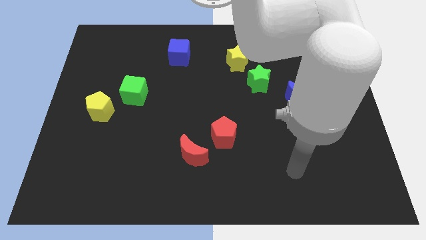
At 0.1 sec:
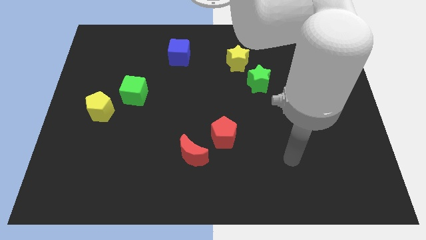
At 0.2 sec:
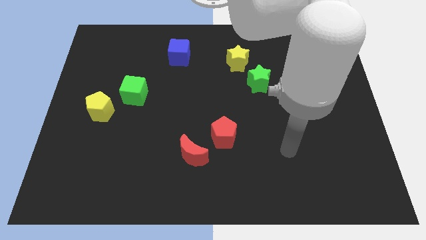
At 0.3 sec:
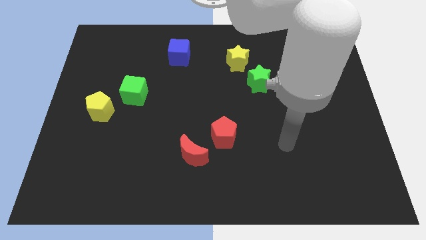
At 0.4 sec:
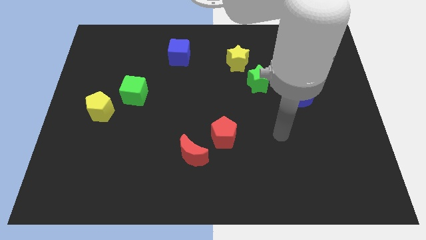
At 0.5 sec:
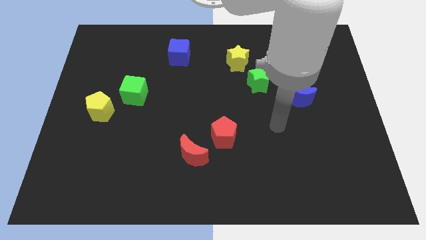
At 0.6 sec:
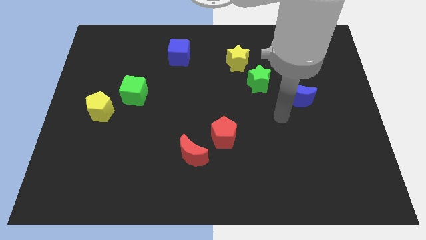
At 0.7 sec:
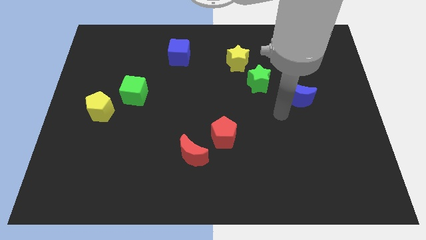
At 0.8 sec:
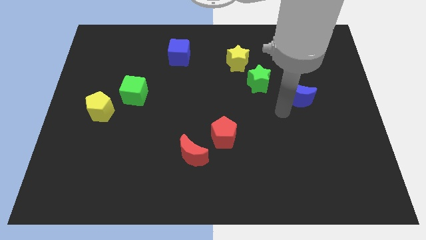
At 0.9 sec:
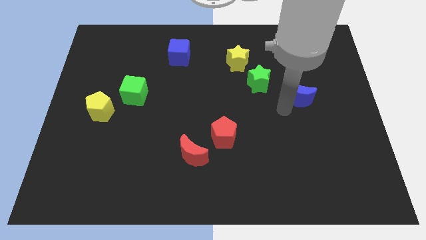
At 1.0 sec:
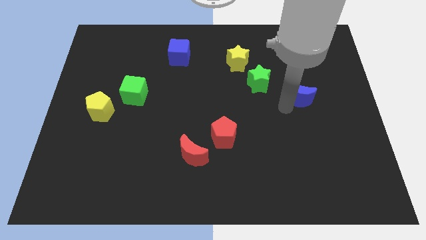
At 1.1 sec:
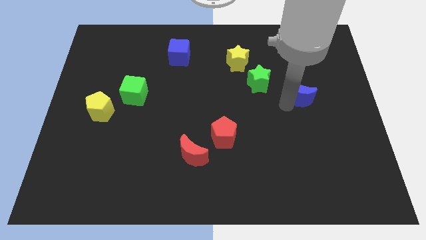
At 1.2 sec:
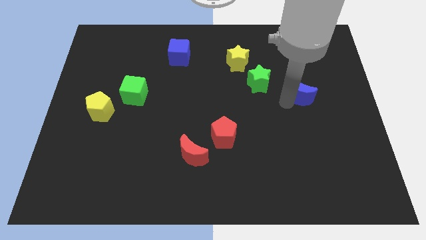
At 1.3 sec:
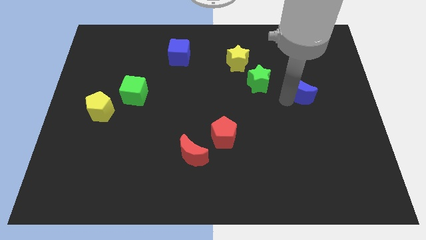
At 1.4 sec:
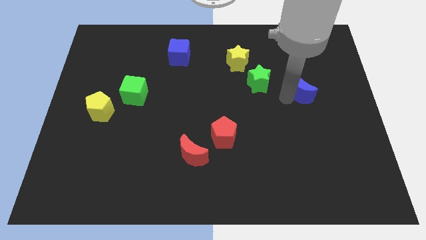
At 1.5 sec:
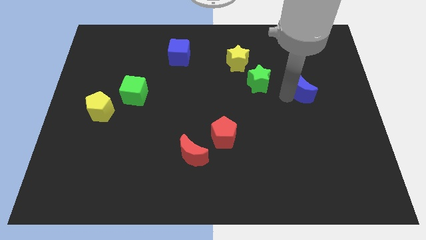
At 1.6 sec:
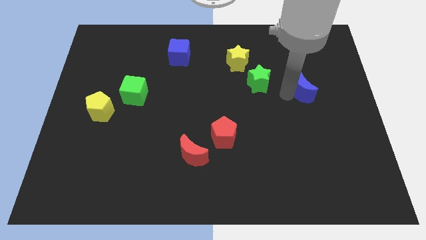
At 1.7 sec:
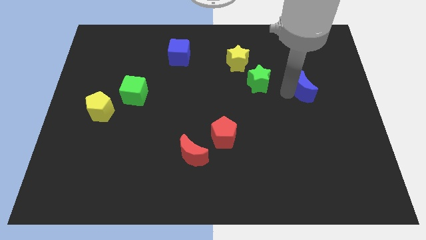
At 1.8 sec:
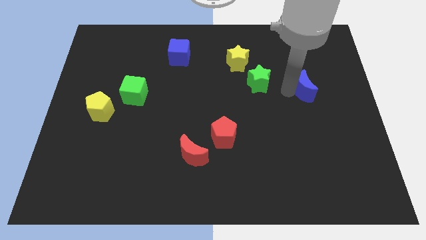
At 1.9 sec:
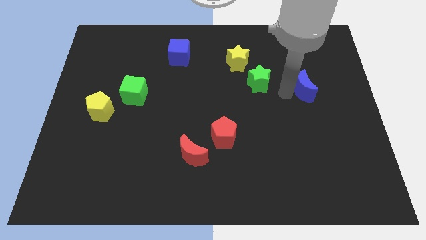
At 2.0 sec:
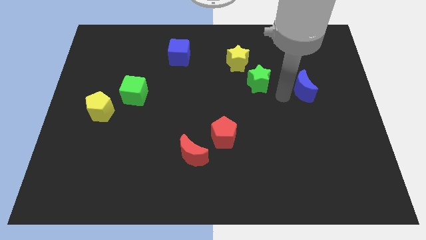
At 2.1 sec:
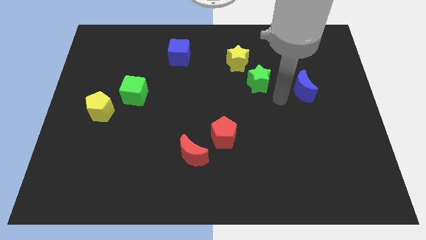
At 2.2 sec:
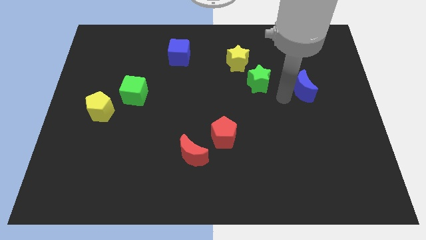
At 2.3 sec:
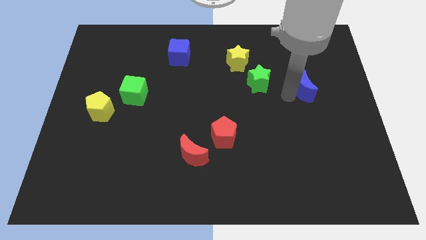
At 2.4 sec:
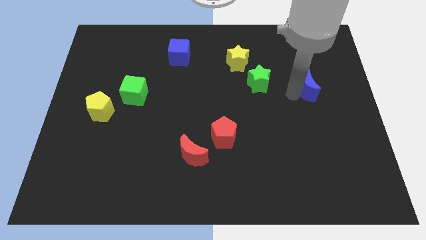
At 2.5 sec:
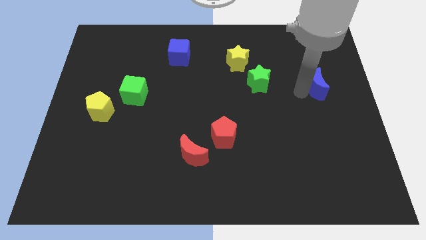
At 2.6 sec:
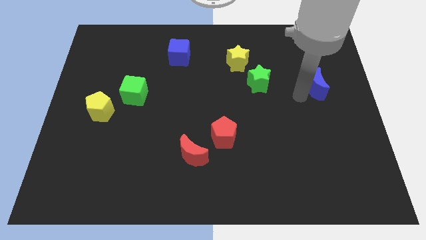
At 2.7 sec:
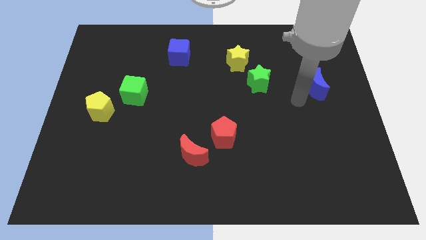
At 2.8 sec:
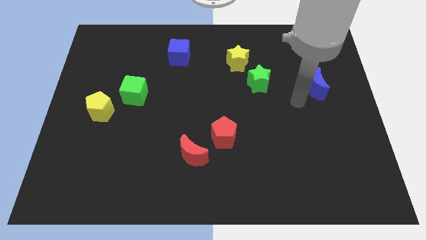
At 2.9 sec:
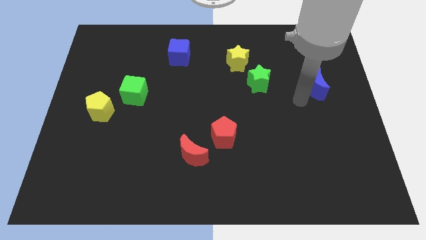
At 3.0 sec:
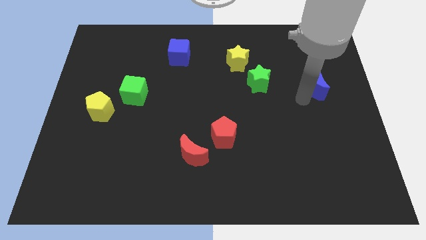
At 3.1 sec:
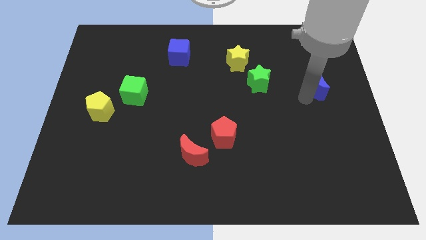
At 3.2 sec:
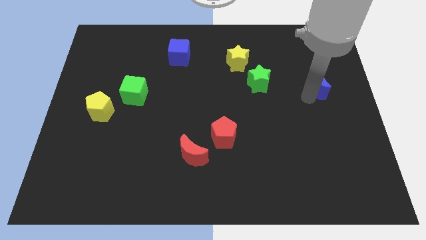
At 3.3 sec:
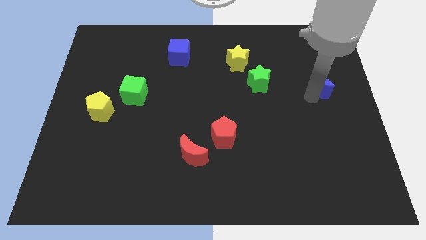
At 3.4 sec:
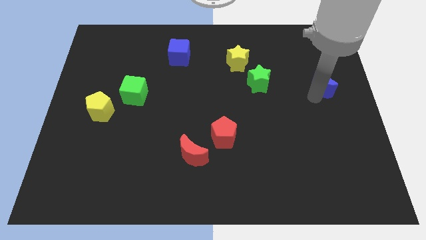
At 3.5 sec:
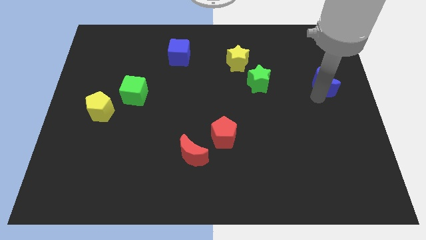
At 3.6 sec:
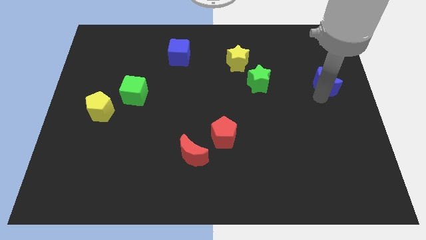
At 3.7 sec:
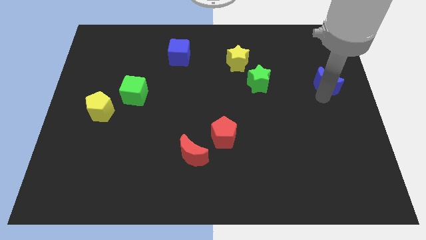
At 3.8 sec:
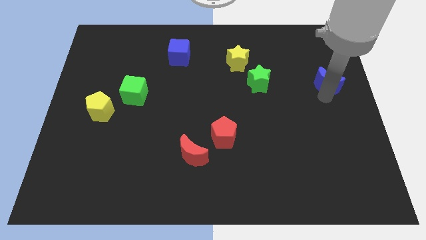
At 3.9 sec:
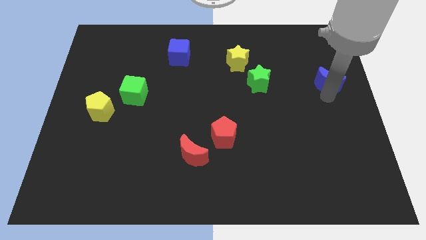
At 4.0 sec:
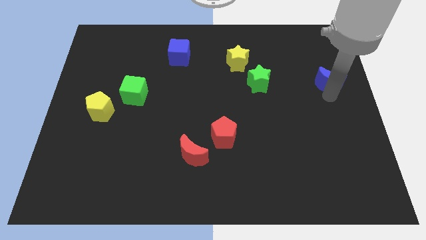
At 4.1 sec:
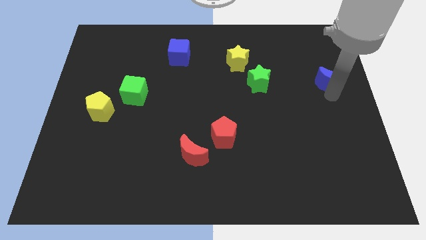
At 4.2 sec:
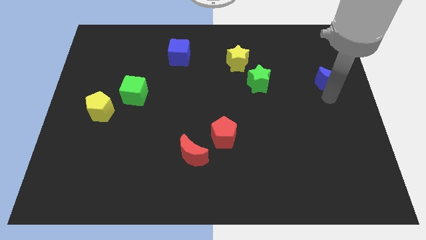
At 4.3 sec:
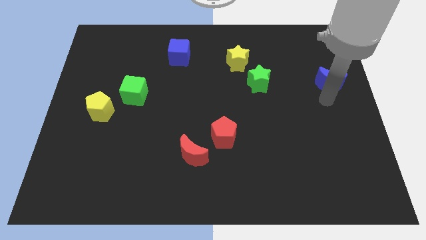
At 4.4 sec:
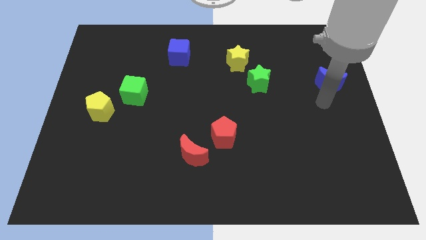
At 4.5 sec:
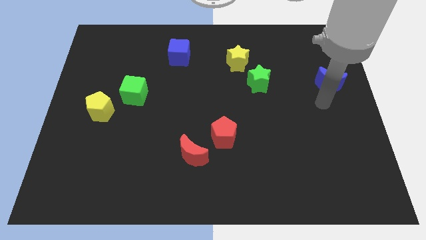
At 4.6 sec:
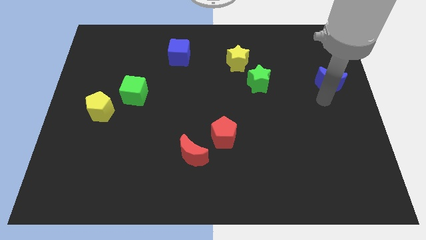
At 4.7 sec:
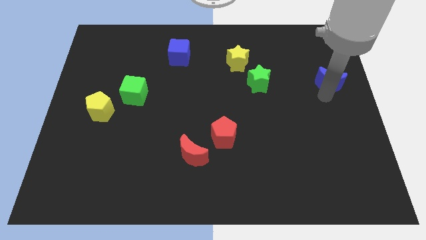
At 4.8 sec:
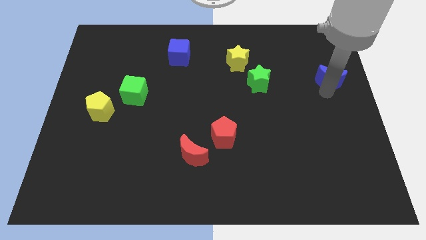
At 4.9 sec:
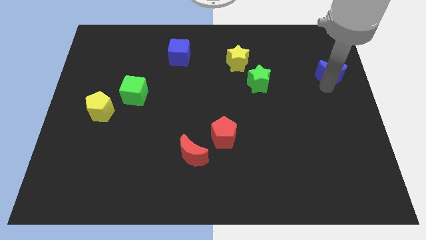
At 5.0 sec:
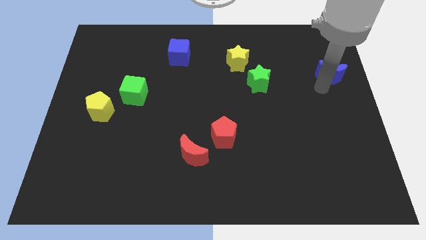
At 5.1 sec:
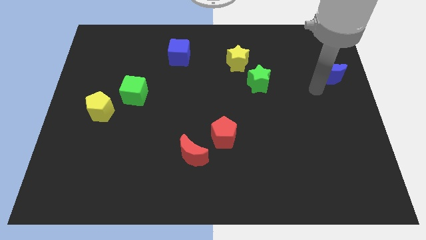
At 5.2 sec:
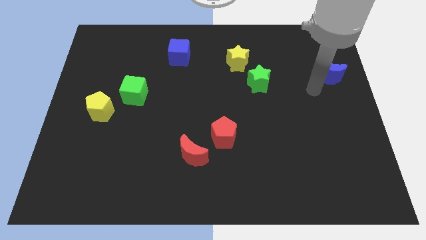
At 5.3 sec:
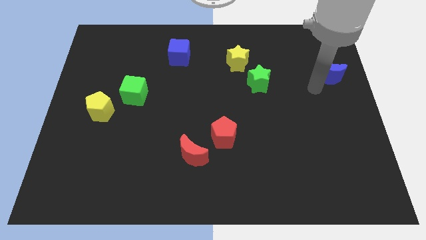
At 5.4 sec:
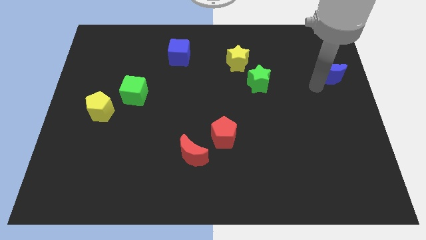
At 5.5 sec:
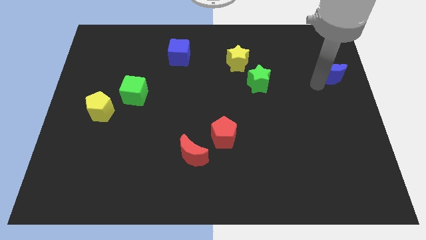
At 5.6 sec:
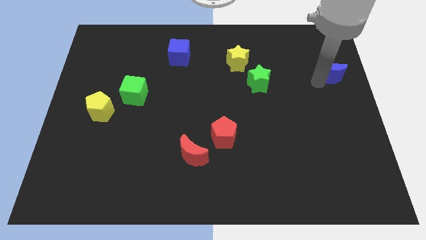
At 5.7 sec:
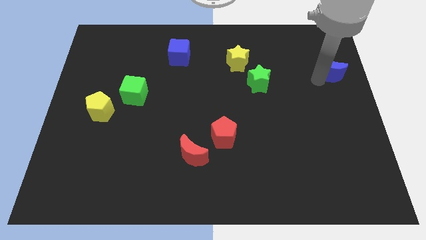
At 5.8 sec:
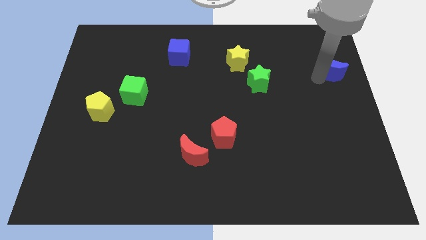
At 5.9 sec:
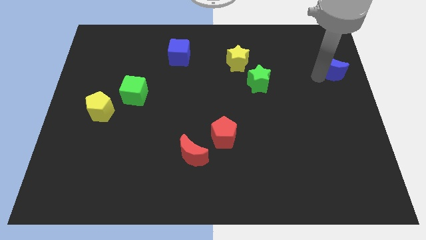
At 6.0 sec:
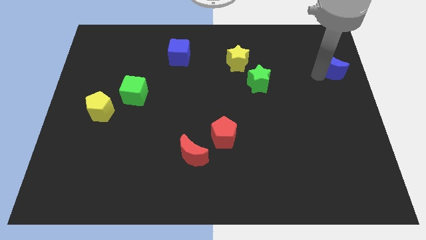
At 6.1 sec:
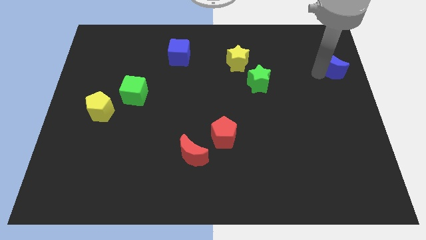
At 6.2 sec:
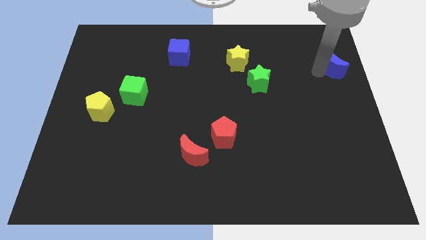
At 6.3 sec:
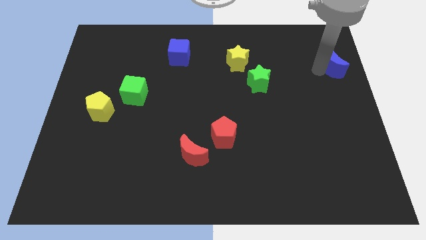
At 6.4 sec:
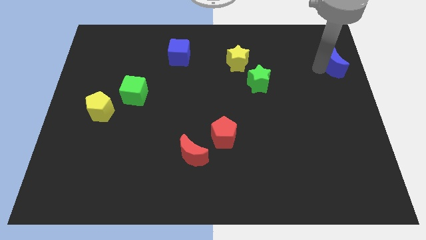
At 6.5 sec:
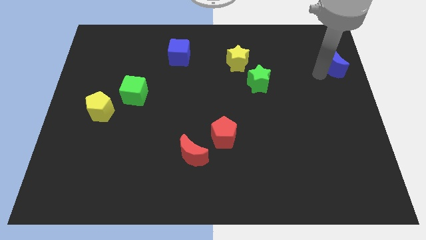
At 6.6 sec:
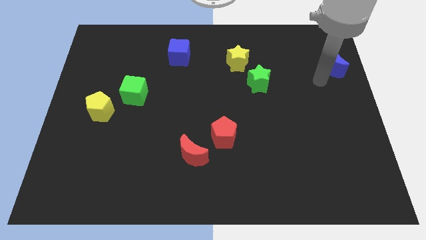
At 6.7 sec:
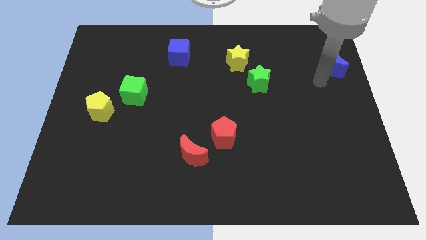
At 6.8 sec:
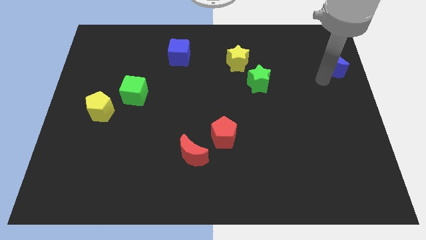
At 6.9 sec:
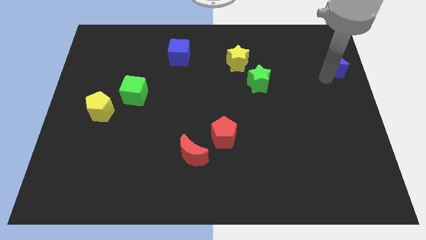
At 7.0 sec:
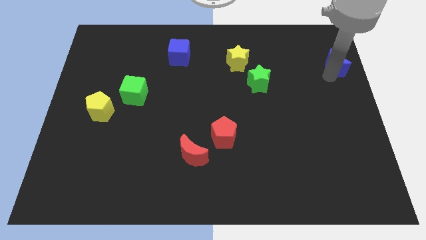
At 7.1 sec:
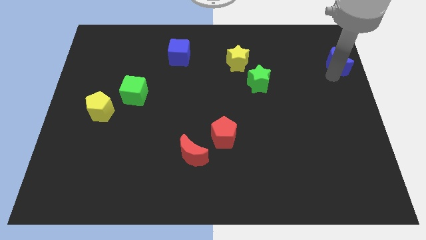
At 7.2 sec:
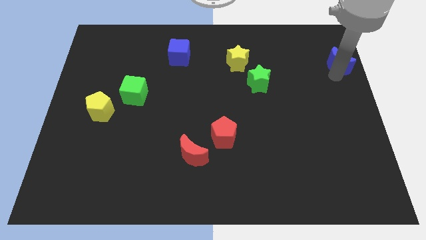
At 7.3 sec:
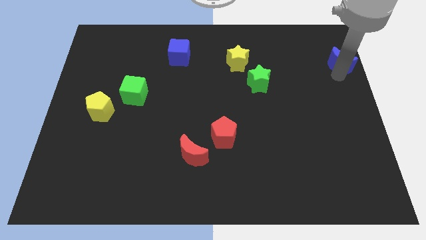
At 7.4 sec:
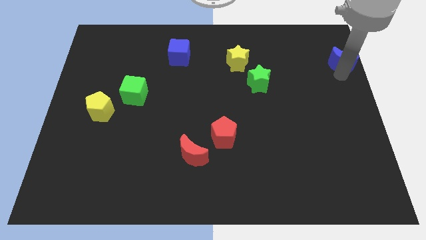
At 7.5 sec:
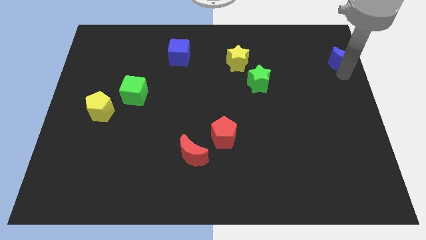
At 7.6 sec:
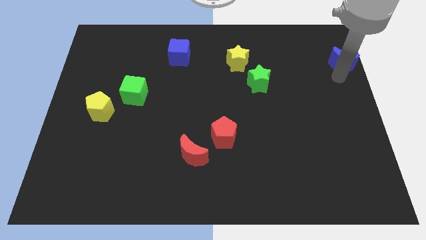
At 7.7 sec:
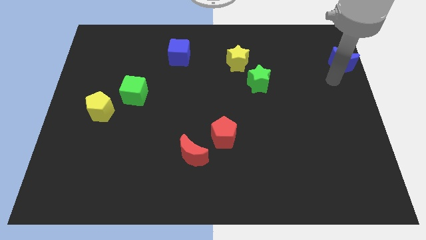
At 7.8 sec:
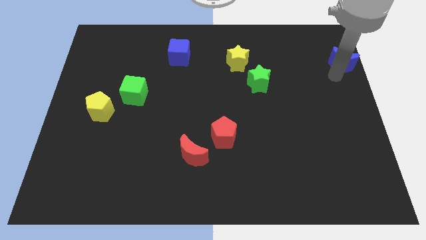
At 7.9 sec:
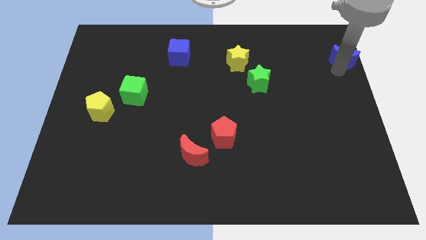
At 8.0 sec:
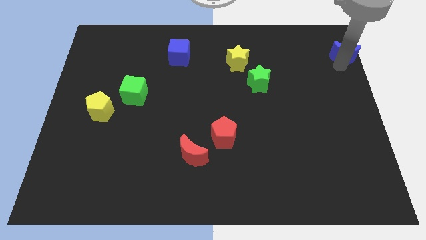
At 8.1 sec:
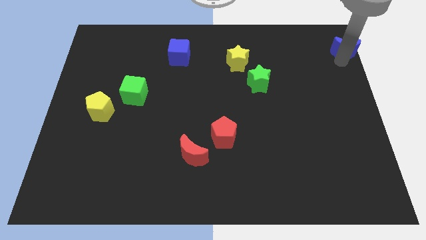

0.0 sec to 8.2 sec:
slide the blue moon to the top right of the board
